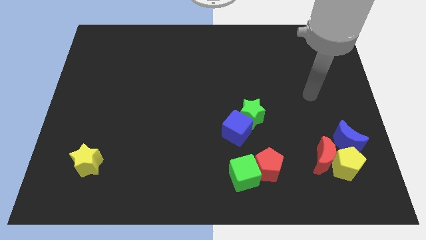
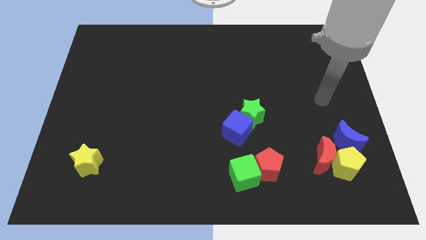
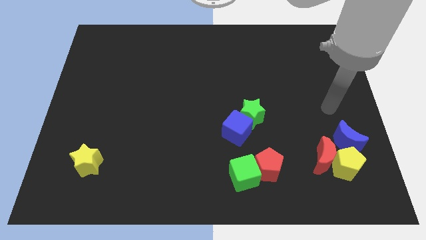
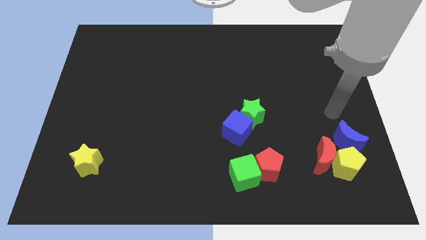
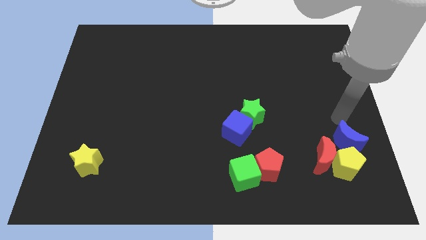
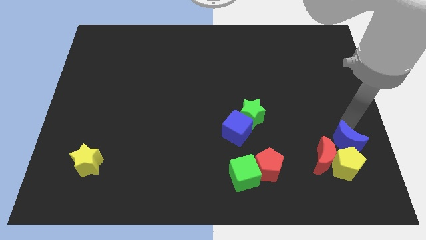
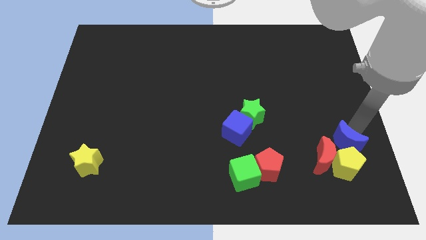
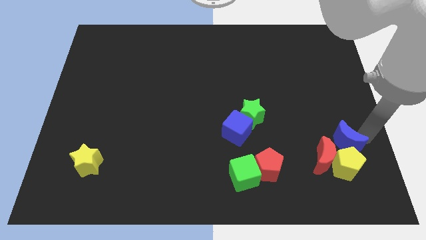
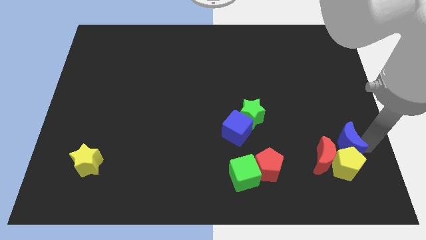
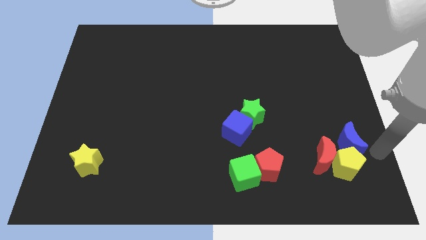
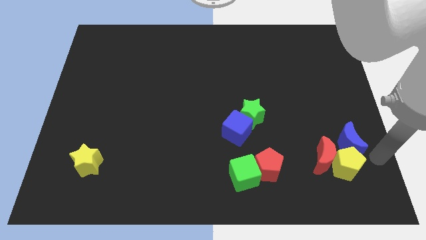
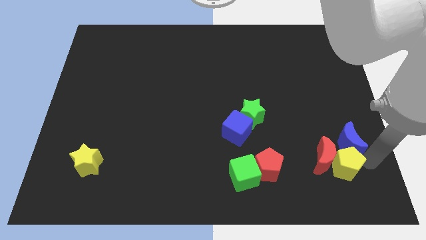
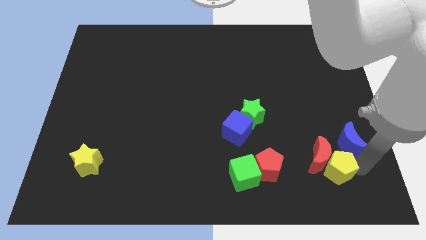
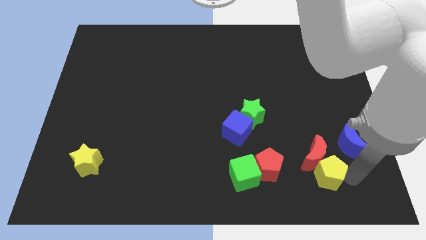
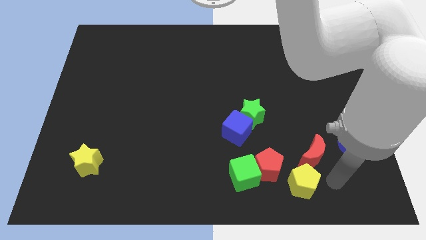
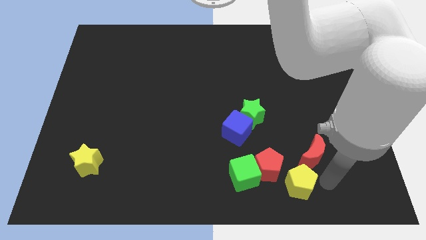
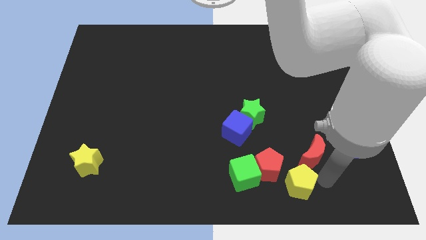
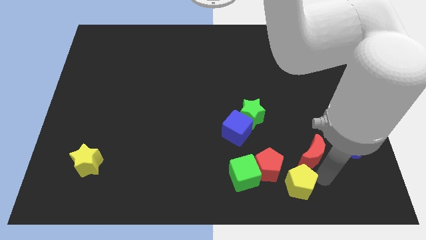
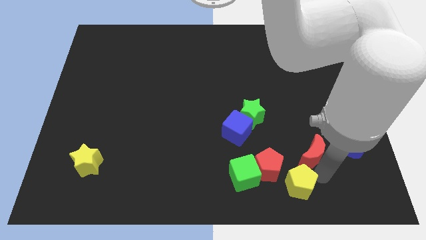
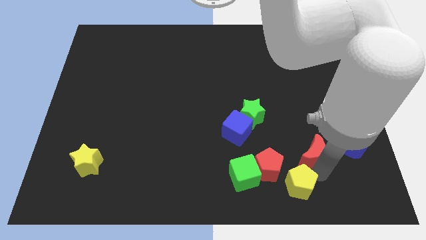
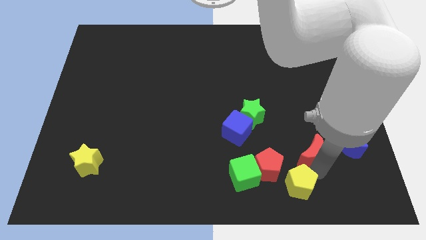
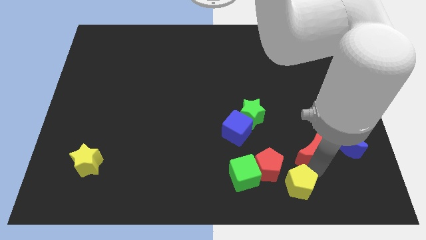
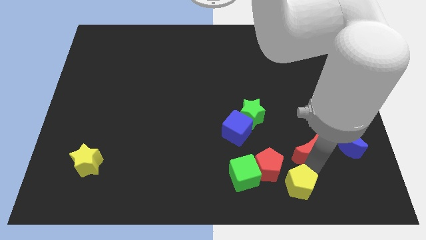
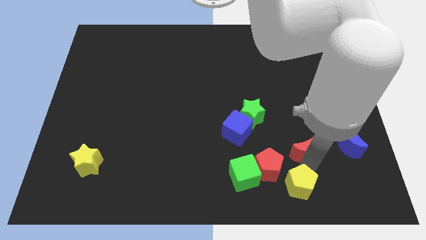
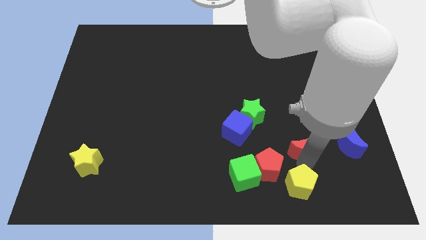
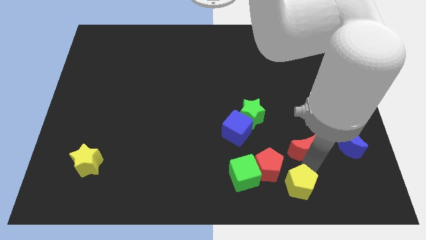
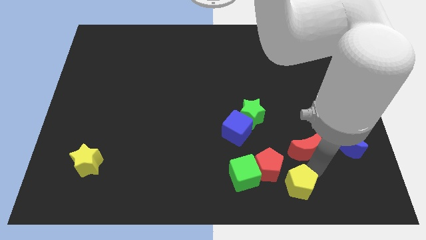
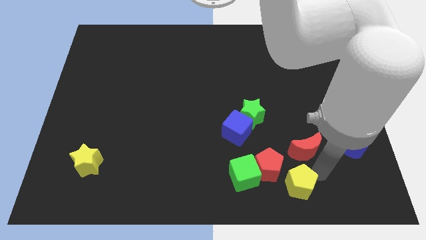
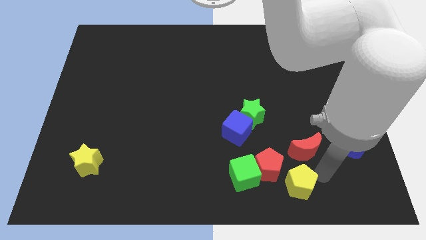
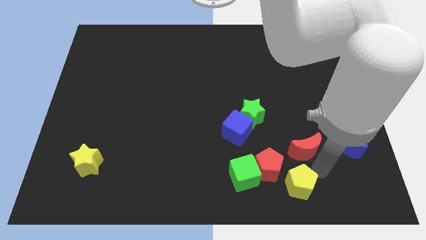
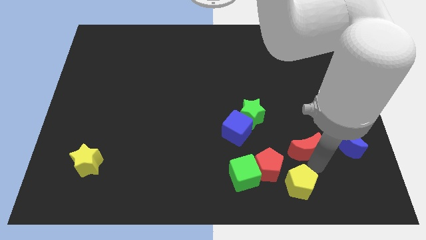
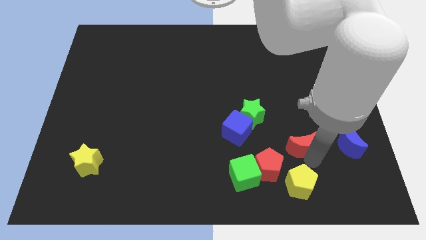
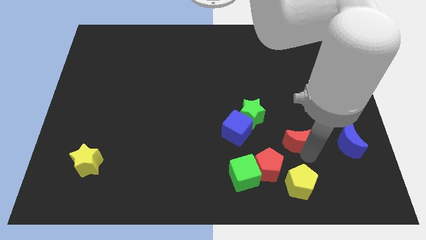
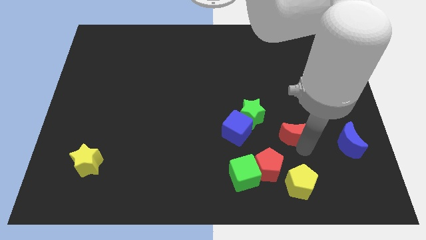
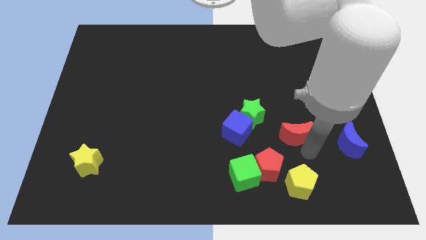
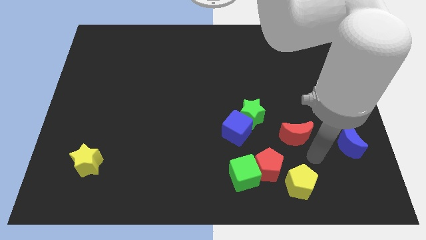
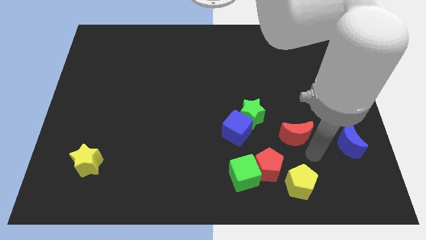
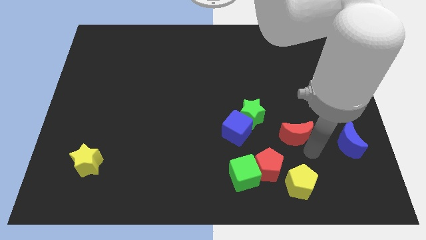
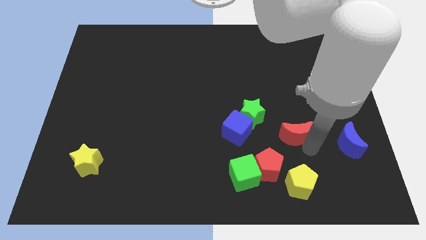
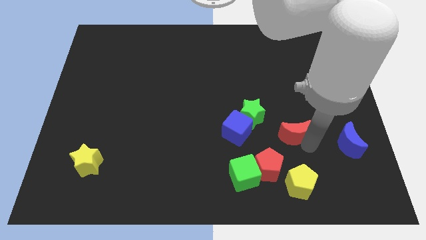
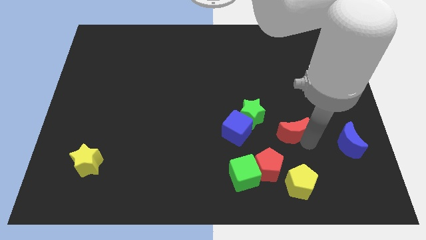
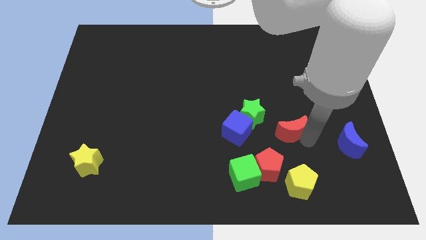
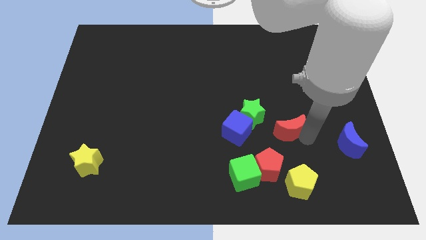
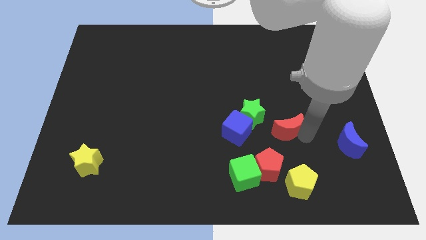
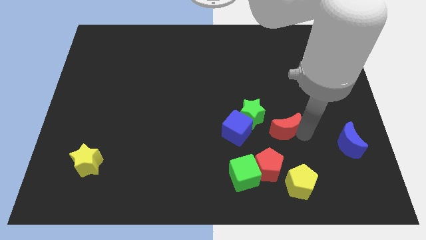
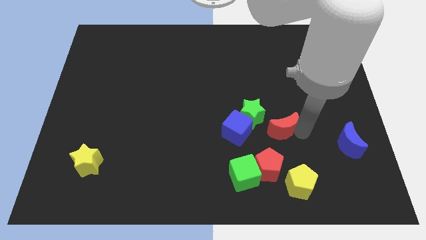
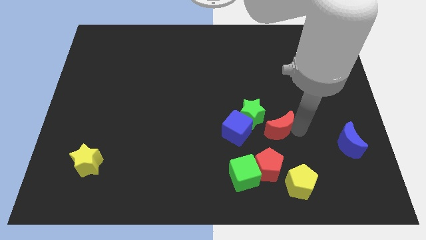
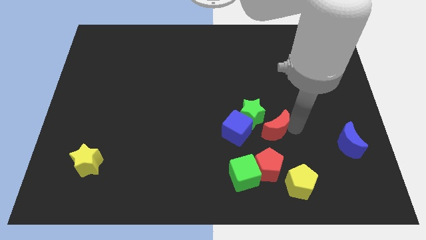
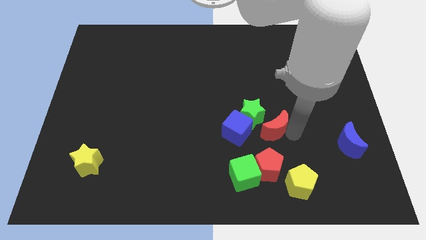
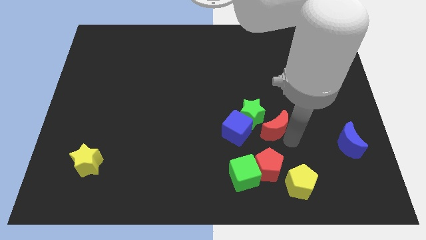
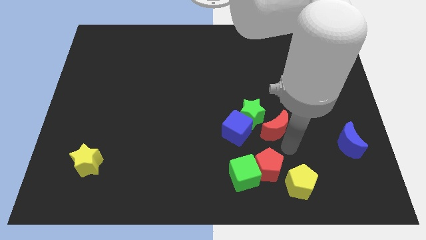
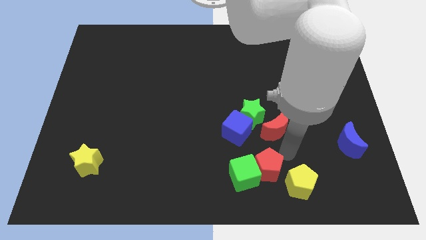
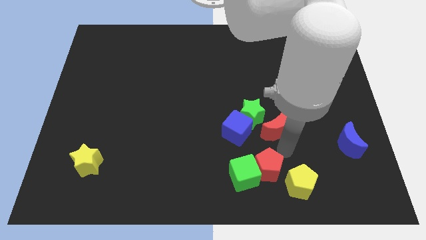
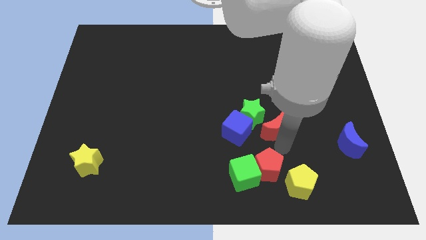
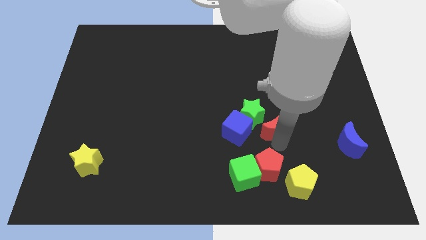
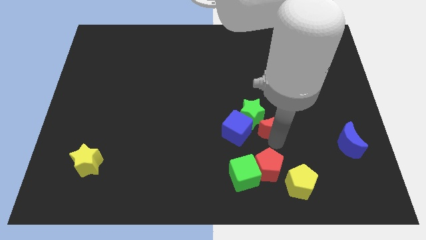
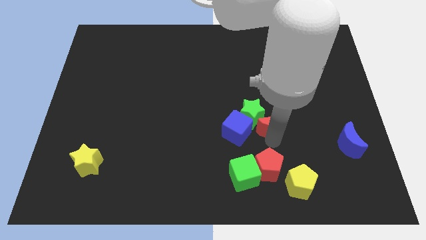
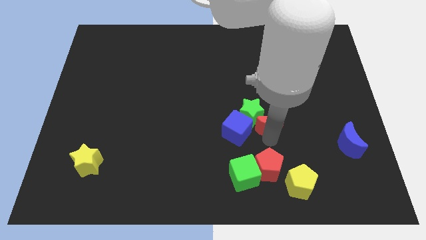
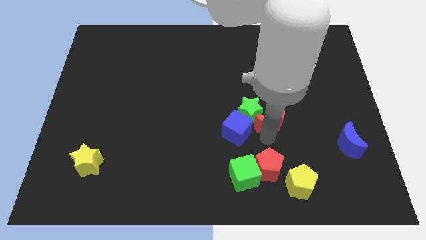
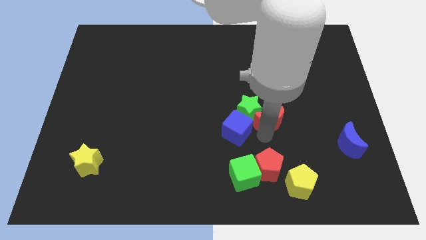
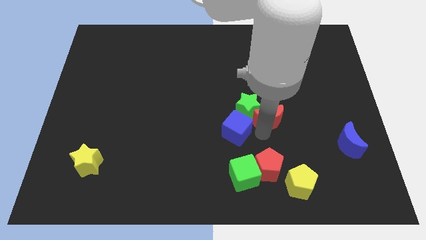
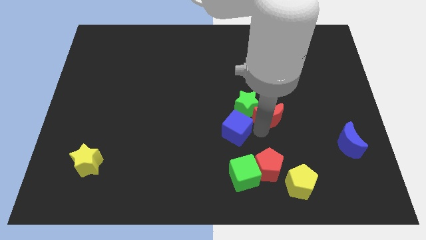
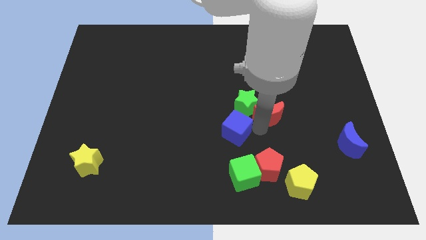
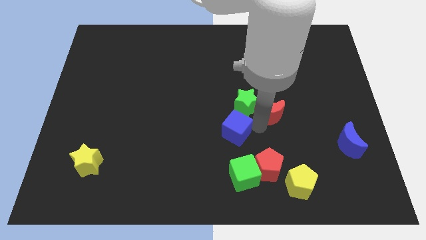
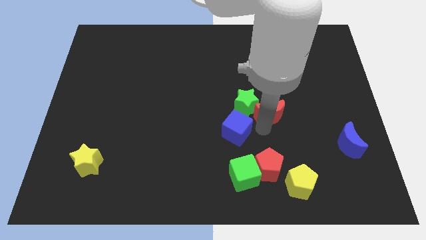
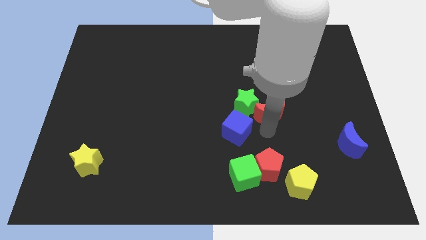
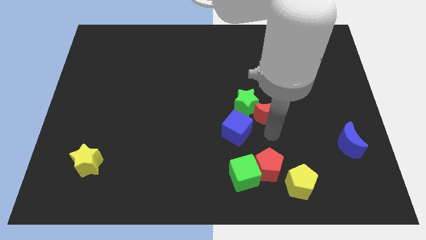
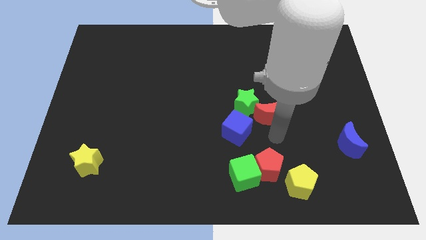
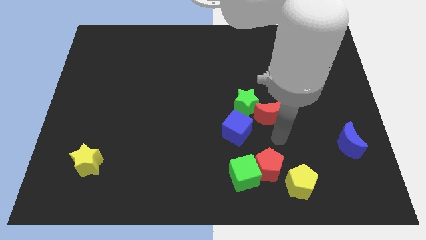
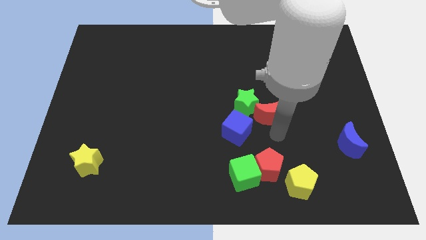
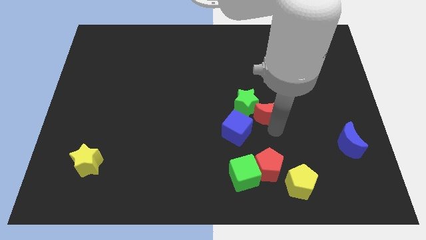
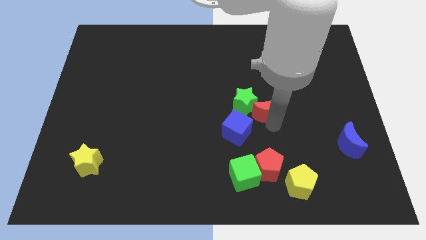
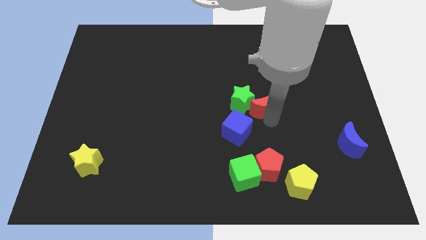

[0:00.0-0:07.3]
slide the red moon to the middle of the board
